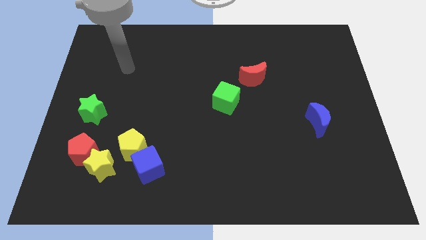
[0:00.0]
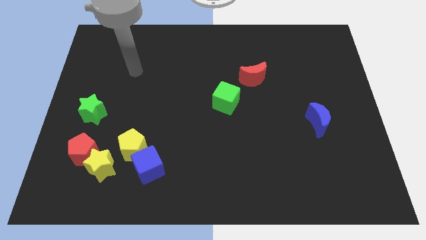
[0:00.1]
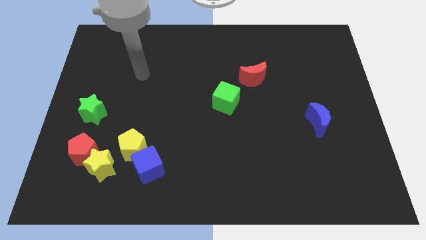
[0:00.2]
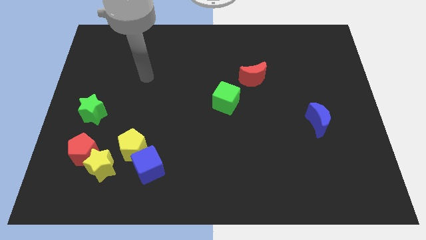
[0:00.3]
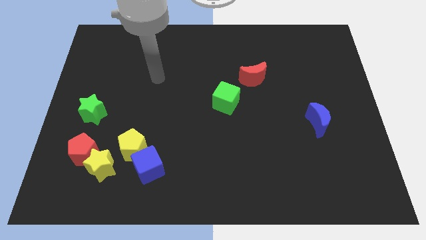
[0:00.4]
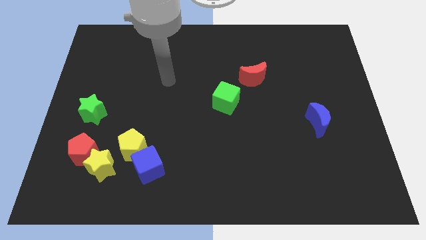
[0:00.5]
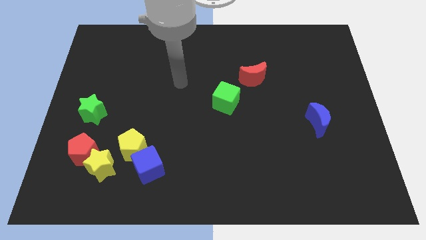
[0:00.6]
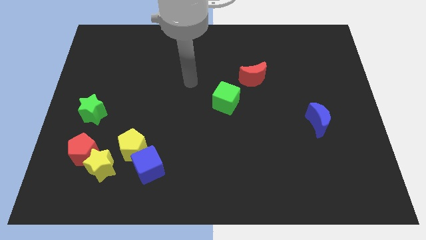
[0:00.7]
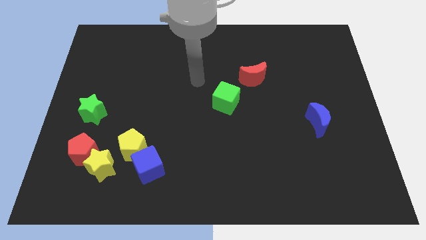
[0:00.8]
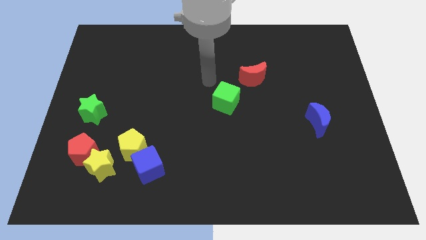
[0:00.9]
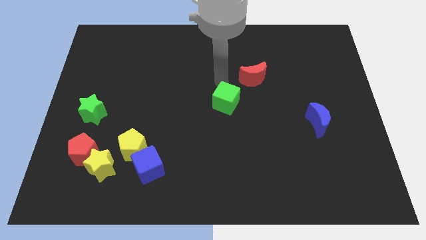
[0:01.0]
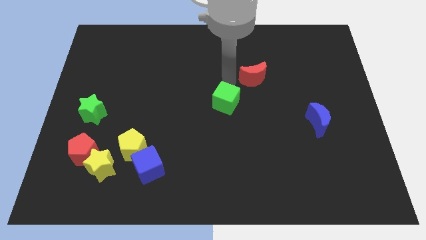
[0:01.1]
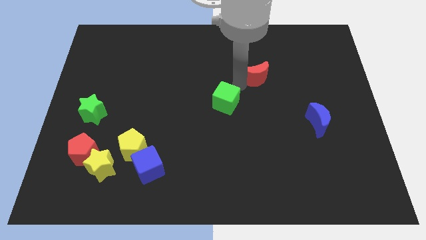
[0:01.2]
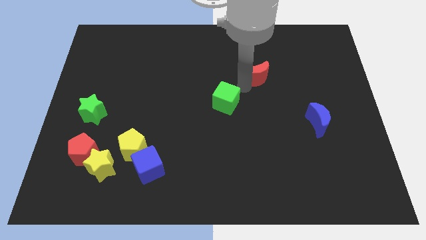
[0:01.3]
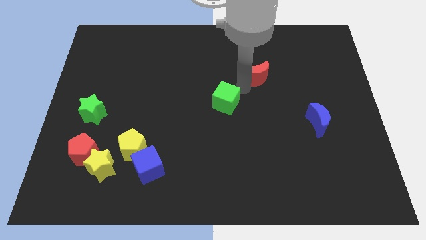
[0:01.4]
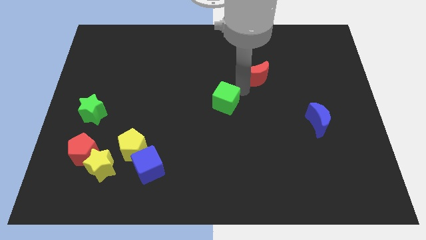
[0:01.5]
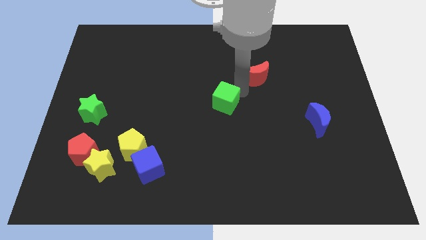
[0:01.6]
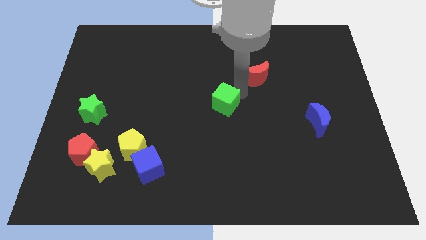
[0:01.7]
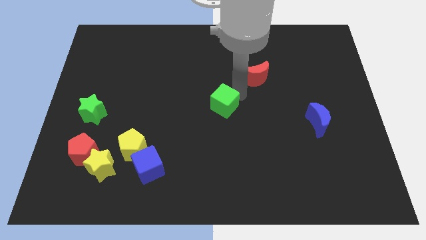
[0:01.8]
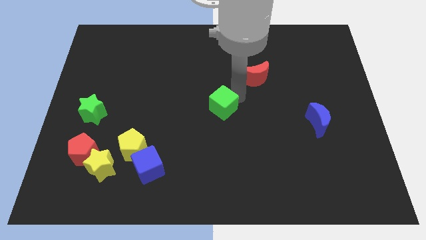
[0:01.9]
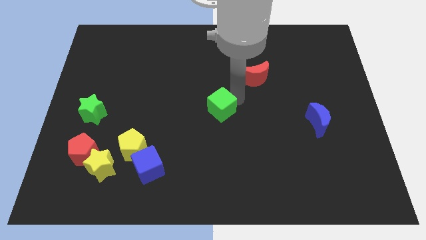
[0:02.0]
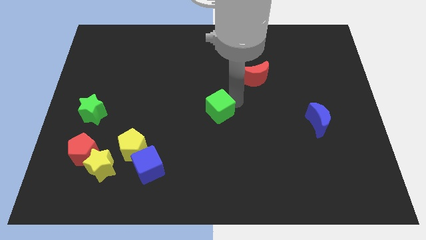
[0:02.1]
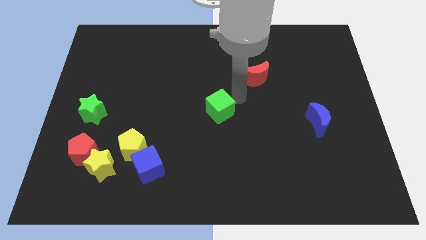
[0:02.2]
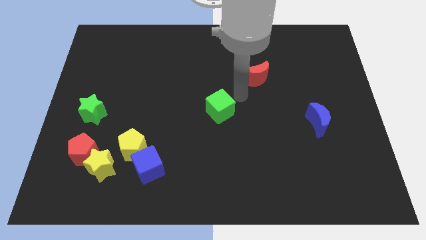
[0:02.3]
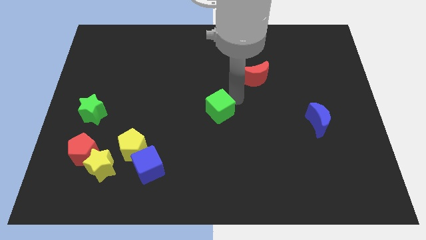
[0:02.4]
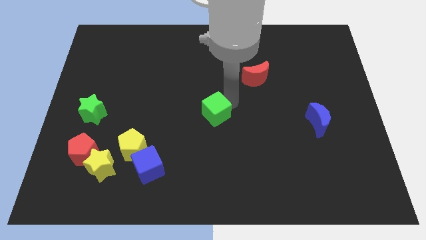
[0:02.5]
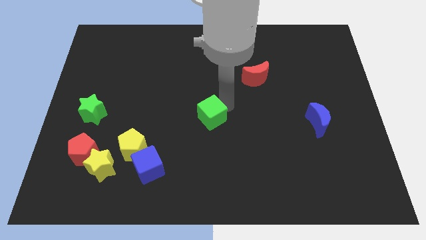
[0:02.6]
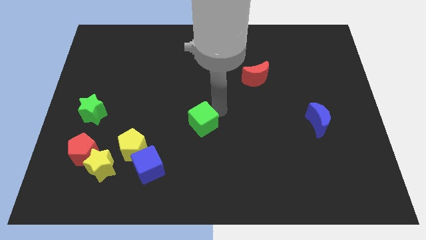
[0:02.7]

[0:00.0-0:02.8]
slide the green cube a little bit downwards and to the left diagonally

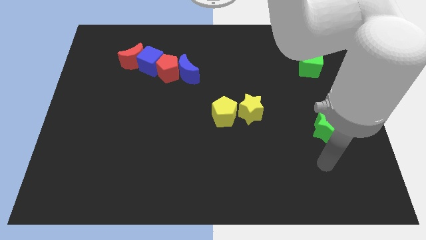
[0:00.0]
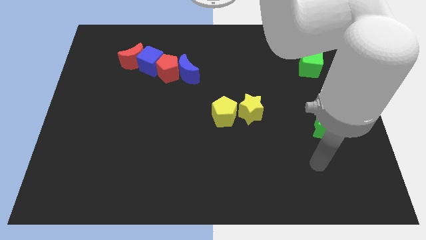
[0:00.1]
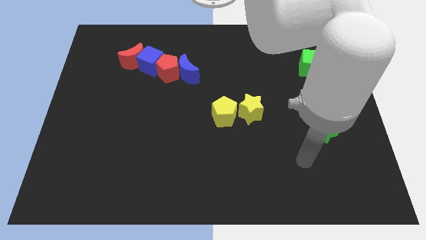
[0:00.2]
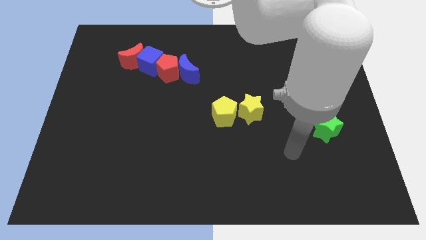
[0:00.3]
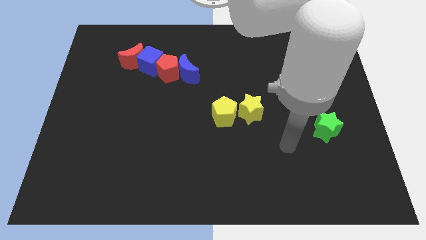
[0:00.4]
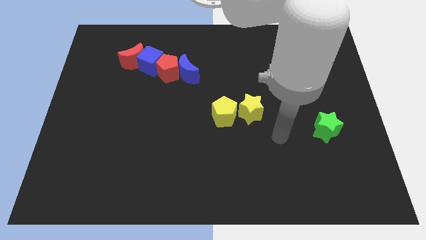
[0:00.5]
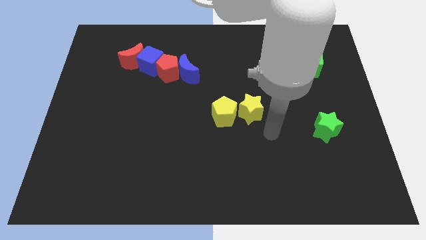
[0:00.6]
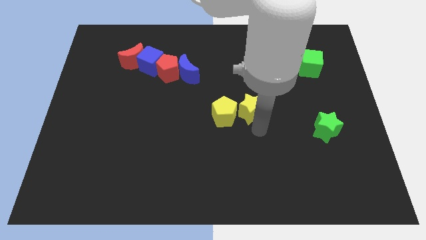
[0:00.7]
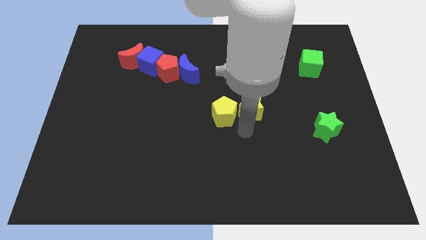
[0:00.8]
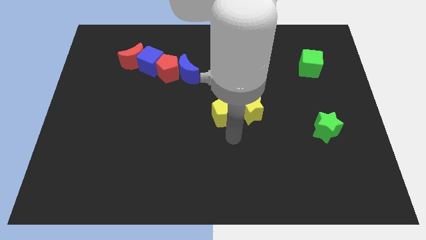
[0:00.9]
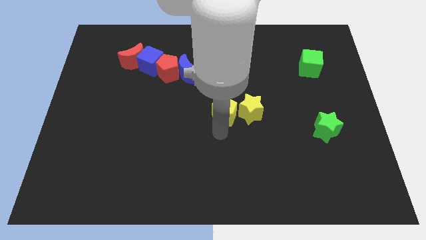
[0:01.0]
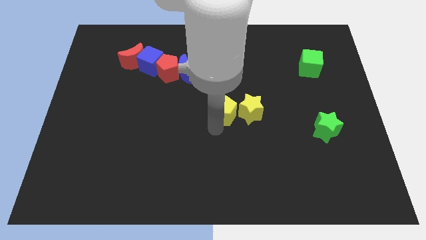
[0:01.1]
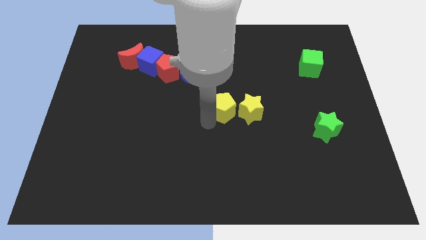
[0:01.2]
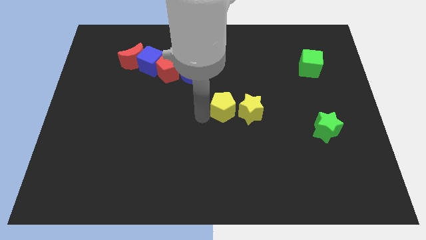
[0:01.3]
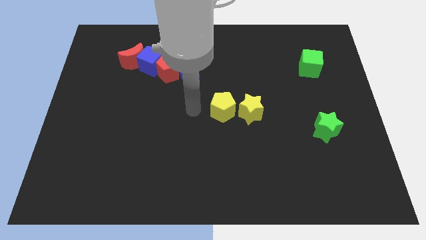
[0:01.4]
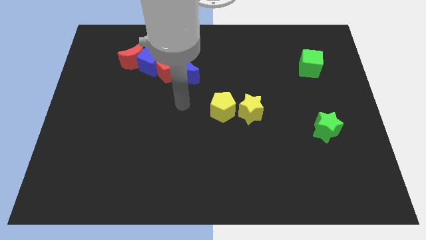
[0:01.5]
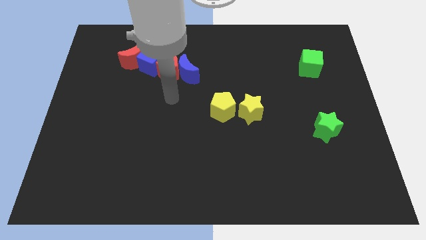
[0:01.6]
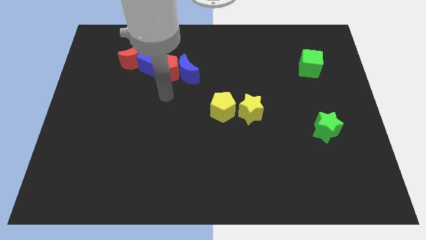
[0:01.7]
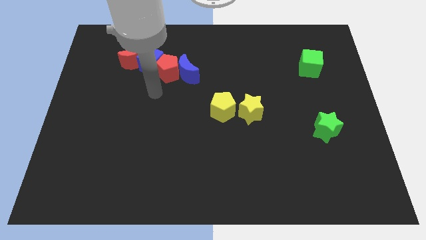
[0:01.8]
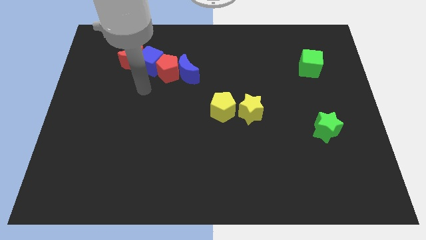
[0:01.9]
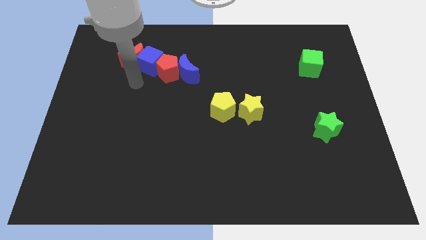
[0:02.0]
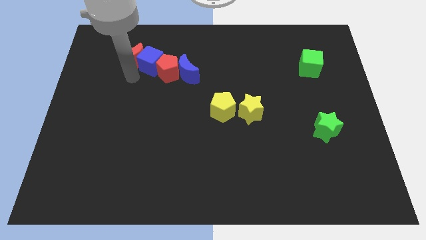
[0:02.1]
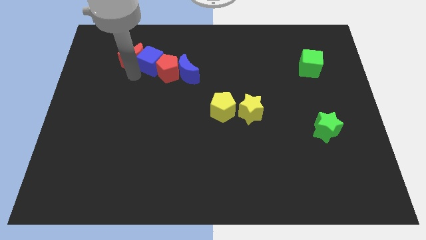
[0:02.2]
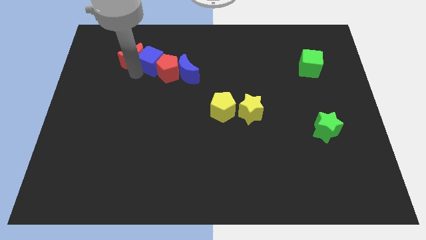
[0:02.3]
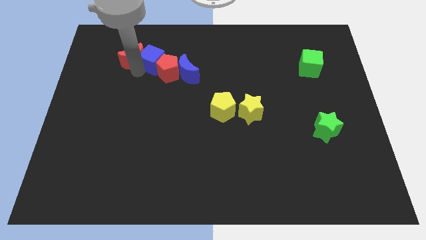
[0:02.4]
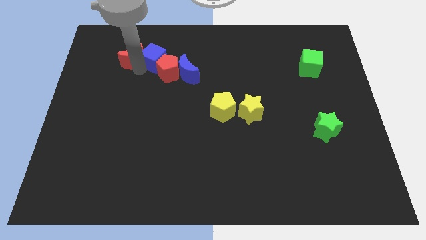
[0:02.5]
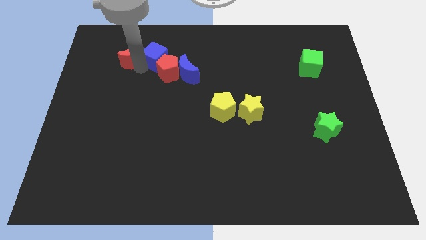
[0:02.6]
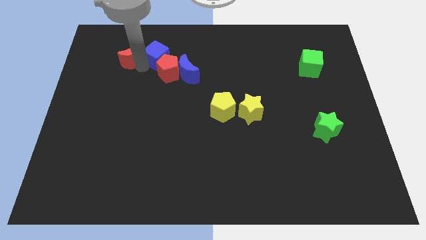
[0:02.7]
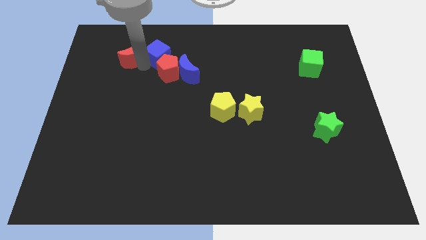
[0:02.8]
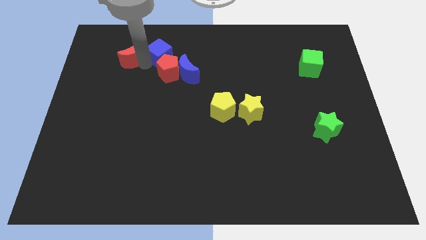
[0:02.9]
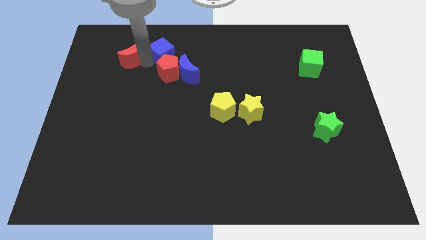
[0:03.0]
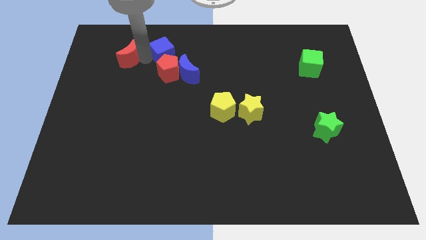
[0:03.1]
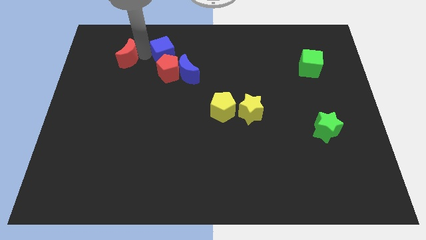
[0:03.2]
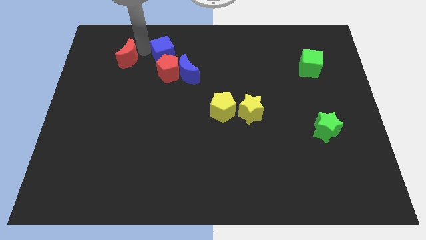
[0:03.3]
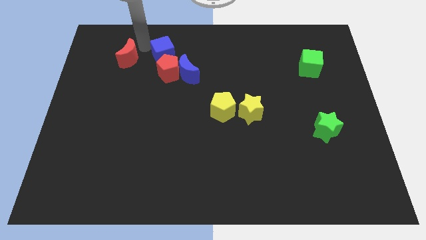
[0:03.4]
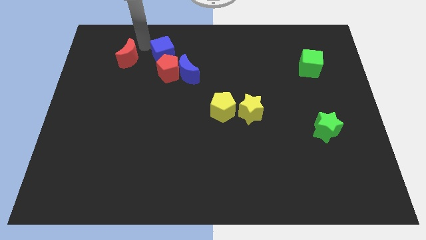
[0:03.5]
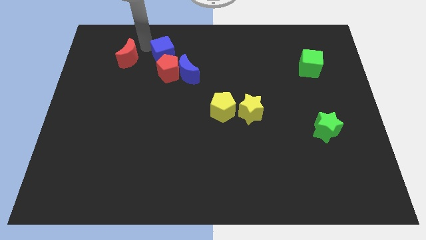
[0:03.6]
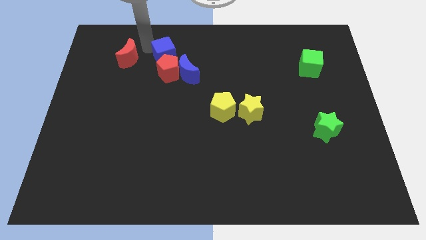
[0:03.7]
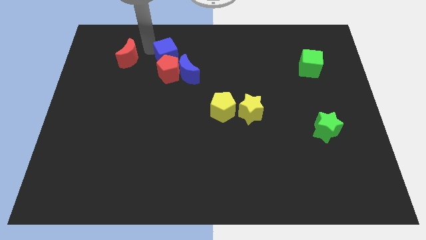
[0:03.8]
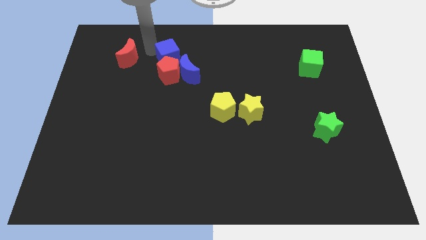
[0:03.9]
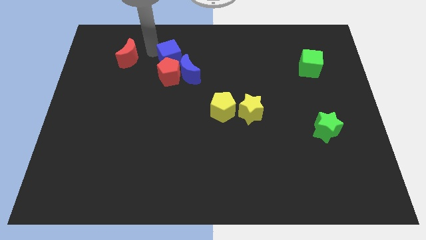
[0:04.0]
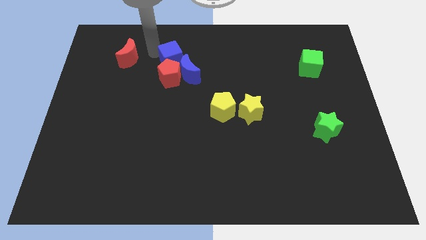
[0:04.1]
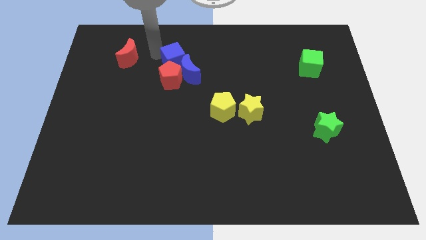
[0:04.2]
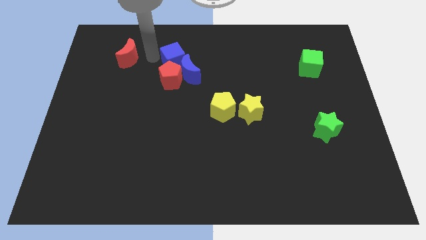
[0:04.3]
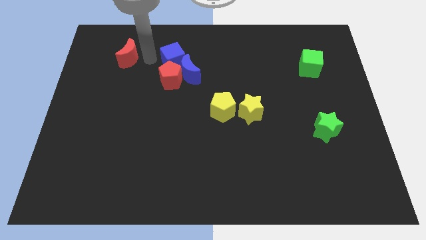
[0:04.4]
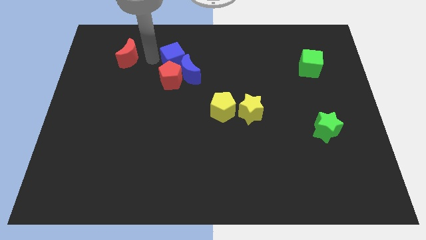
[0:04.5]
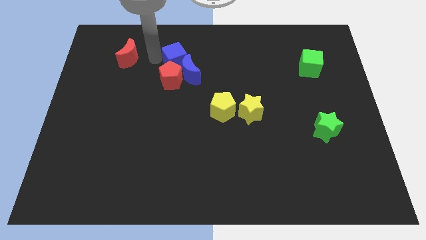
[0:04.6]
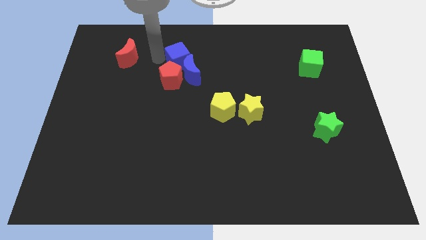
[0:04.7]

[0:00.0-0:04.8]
slide the blue cube a bit right

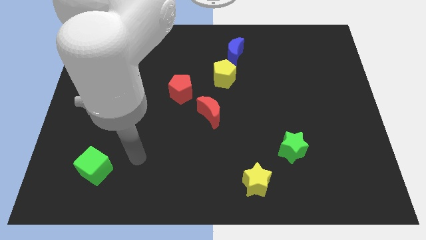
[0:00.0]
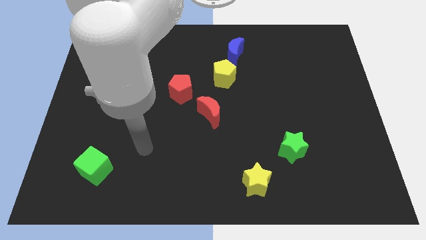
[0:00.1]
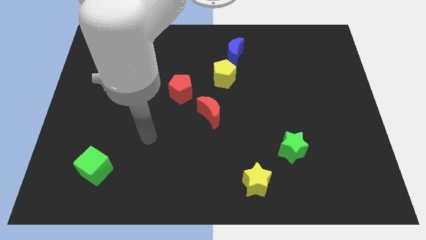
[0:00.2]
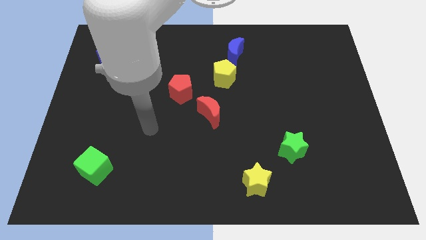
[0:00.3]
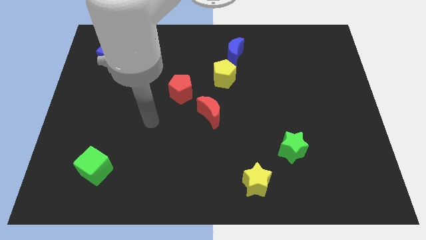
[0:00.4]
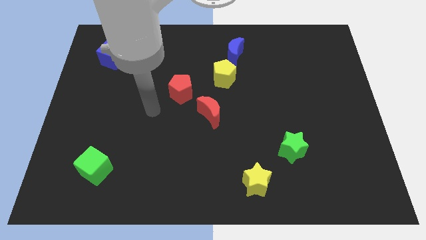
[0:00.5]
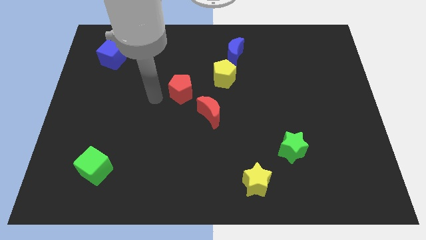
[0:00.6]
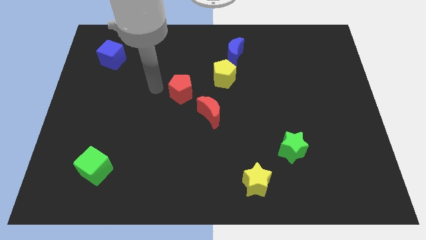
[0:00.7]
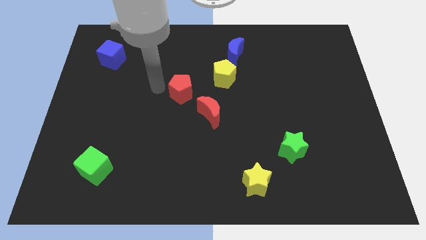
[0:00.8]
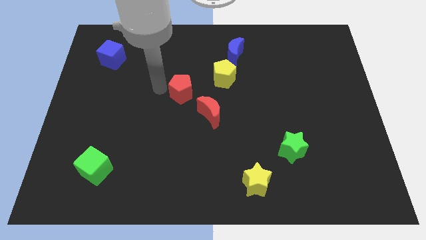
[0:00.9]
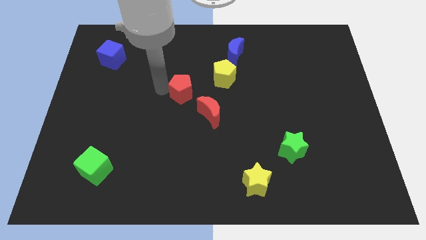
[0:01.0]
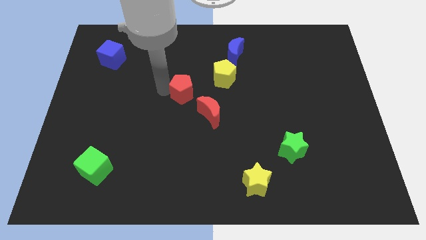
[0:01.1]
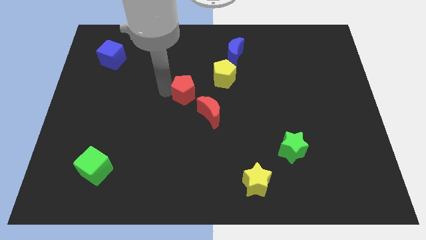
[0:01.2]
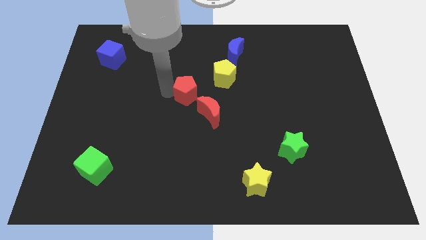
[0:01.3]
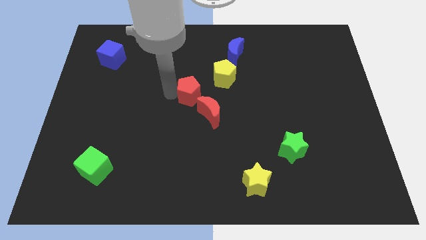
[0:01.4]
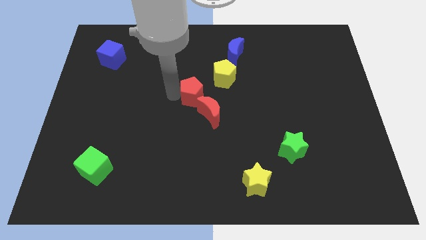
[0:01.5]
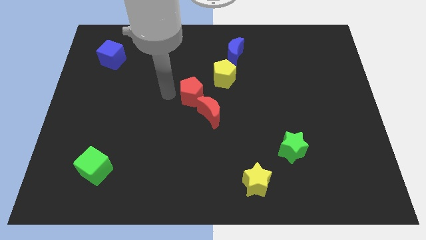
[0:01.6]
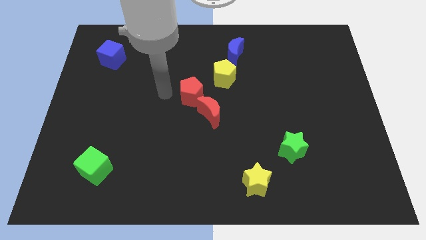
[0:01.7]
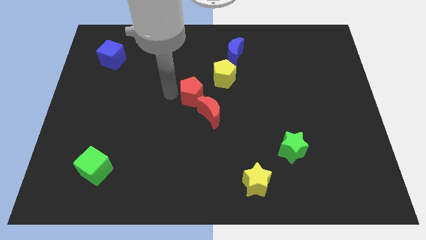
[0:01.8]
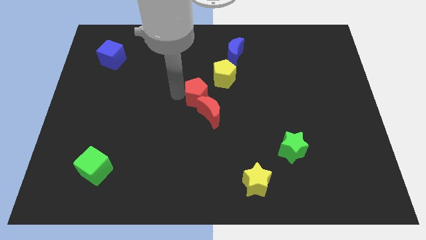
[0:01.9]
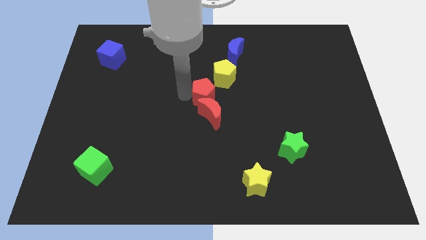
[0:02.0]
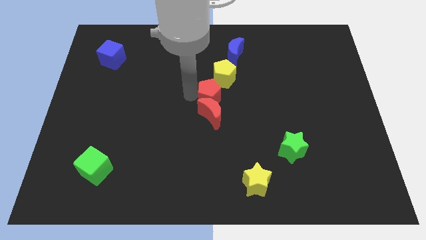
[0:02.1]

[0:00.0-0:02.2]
move the red pentagon a bit right
